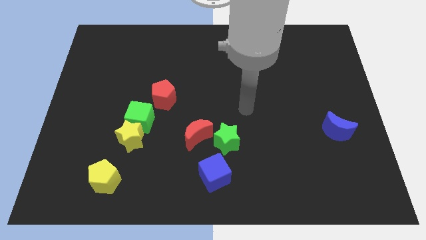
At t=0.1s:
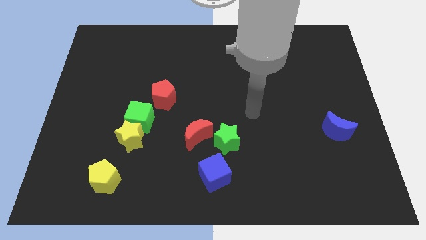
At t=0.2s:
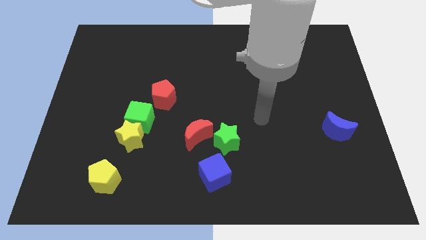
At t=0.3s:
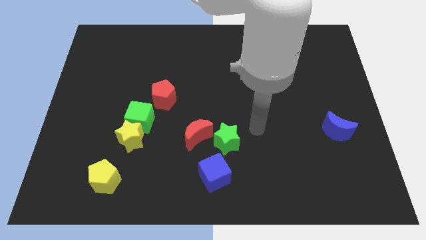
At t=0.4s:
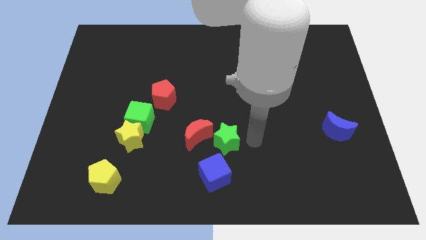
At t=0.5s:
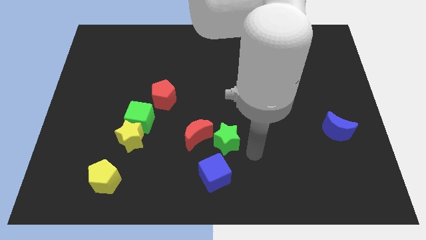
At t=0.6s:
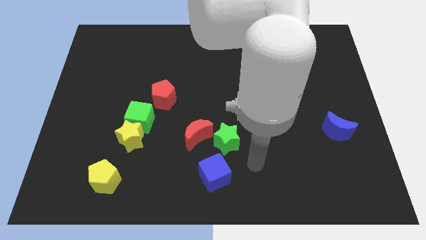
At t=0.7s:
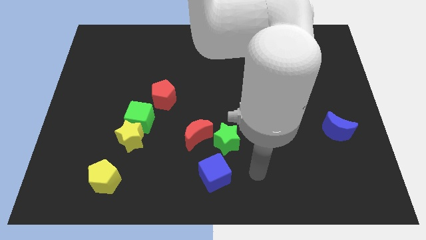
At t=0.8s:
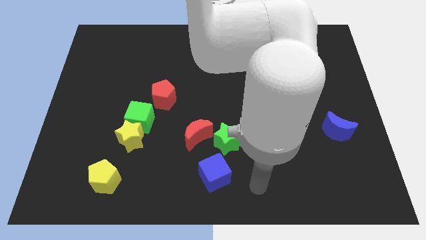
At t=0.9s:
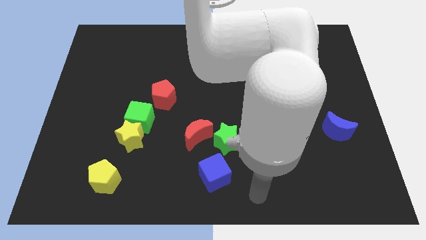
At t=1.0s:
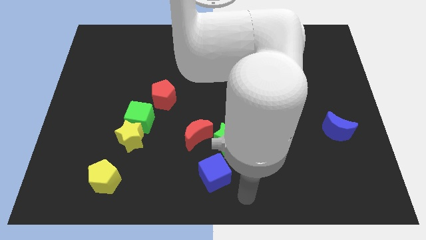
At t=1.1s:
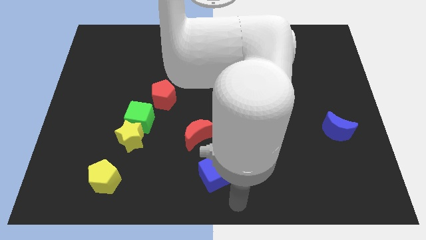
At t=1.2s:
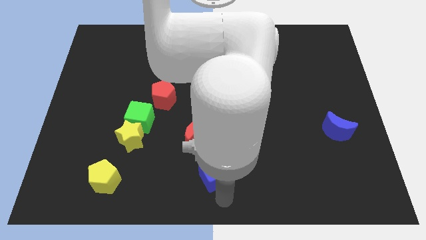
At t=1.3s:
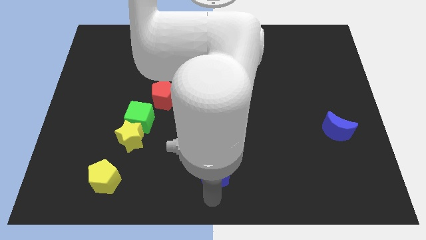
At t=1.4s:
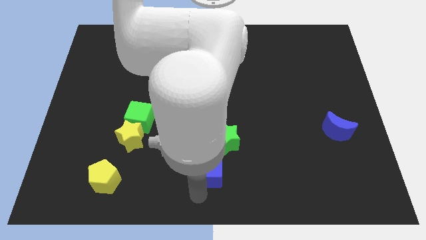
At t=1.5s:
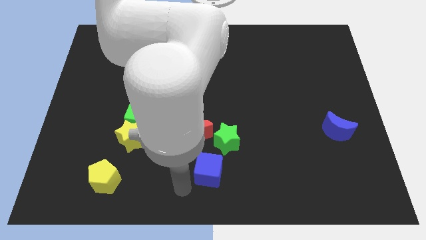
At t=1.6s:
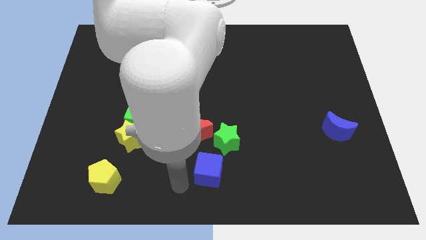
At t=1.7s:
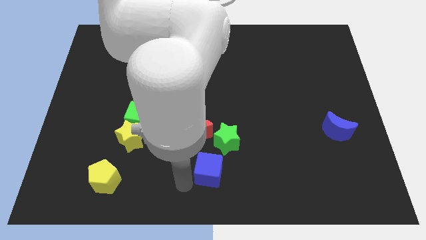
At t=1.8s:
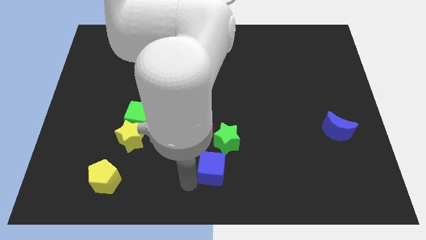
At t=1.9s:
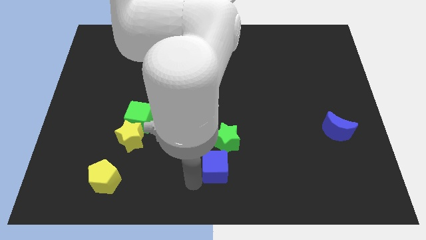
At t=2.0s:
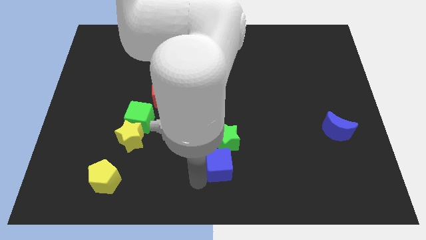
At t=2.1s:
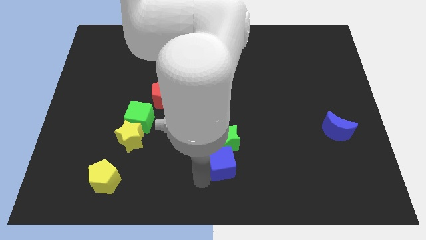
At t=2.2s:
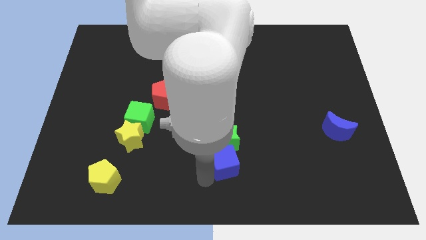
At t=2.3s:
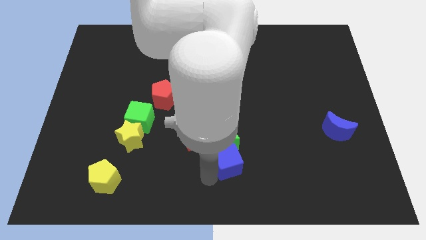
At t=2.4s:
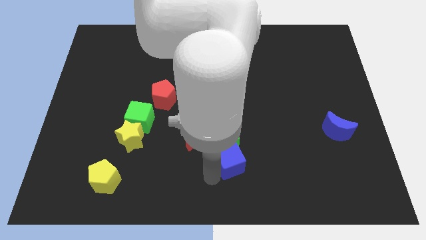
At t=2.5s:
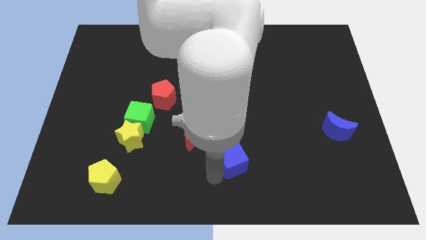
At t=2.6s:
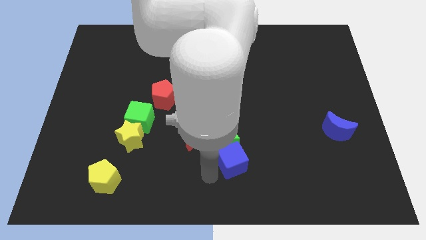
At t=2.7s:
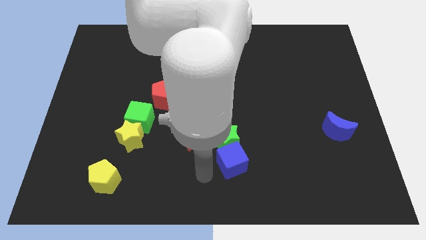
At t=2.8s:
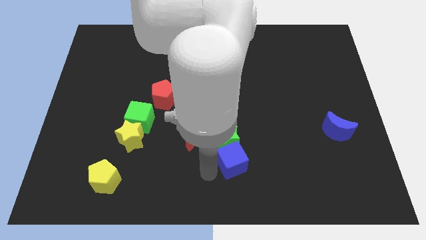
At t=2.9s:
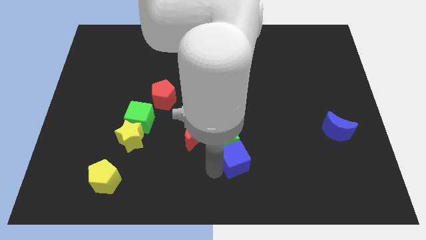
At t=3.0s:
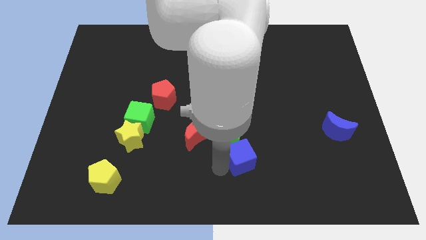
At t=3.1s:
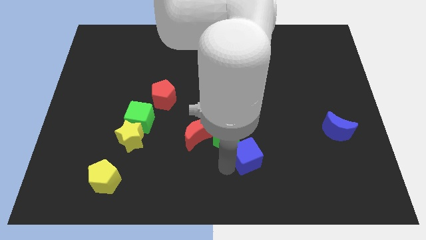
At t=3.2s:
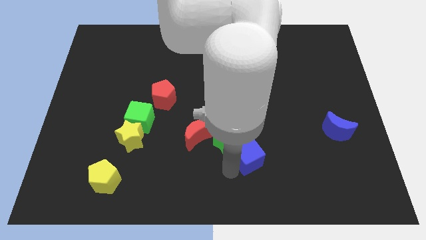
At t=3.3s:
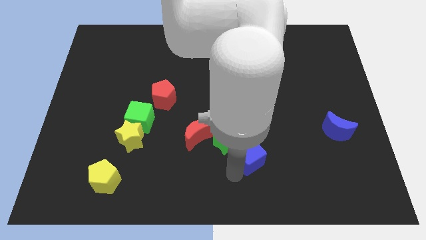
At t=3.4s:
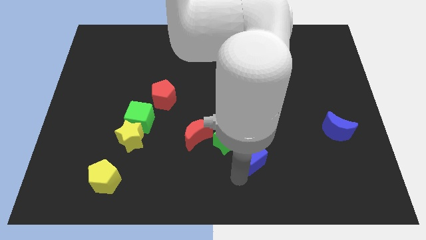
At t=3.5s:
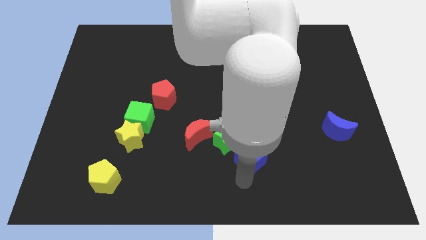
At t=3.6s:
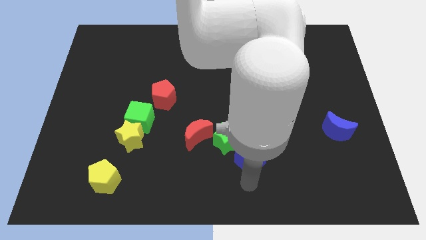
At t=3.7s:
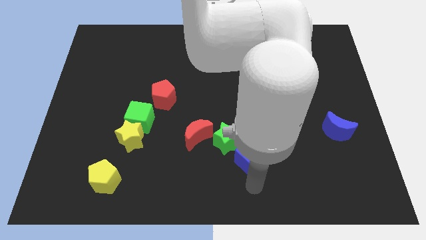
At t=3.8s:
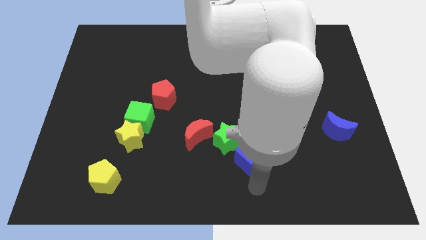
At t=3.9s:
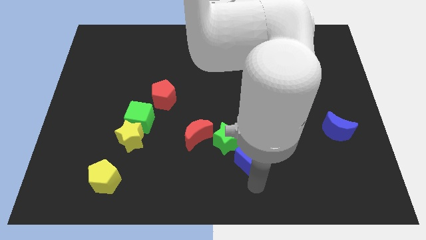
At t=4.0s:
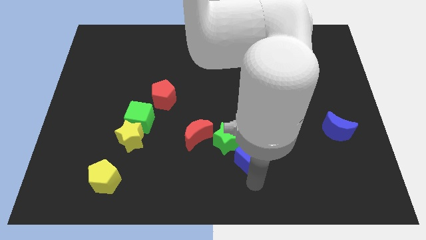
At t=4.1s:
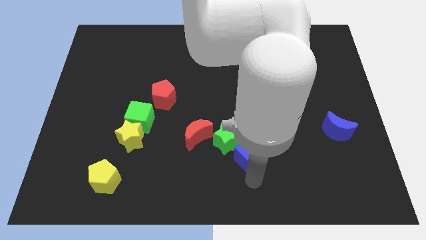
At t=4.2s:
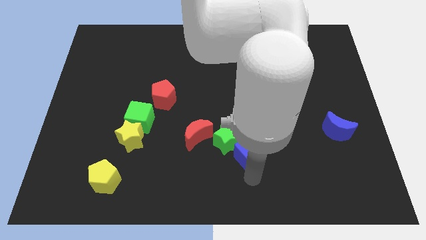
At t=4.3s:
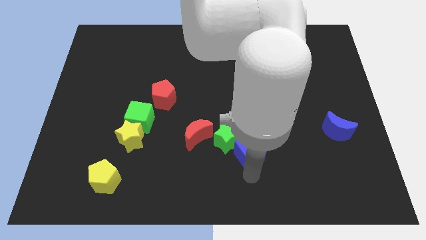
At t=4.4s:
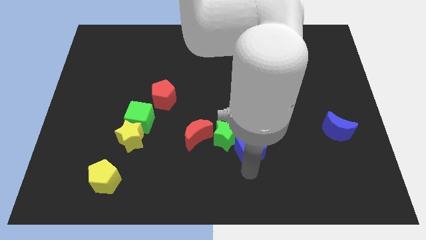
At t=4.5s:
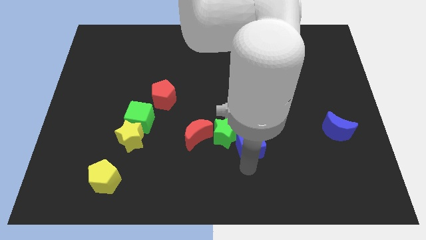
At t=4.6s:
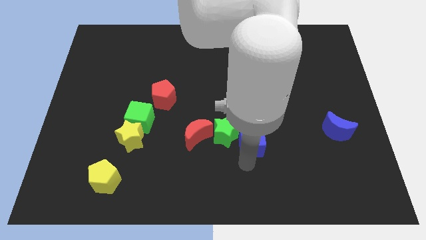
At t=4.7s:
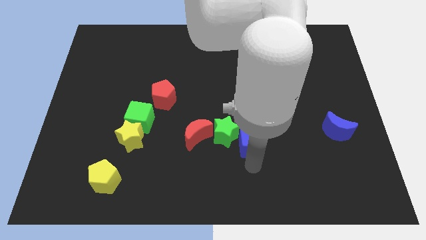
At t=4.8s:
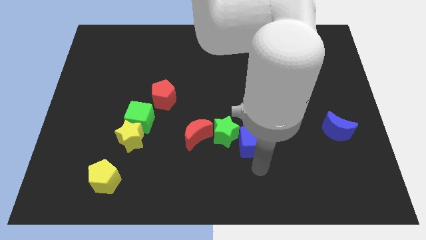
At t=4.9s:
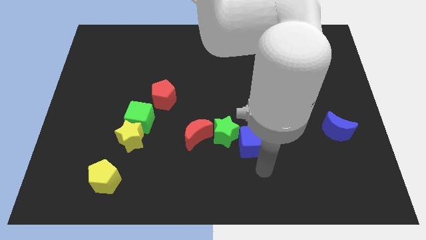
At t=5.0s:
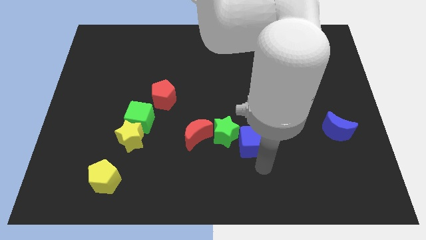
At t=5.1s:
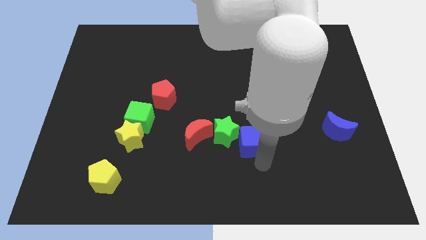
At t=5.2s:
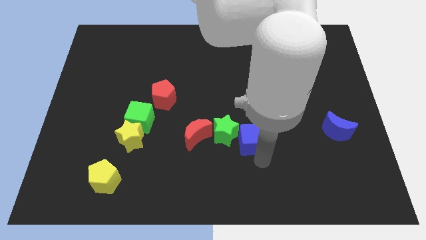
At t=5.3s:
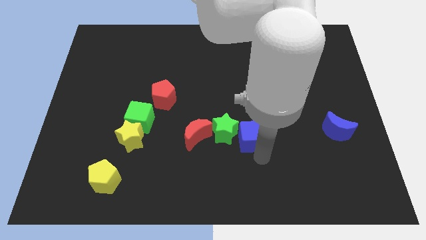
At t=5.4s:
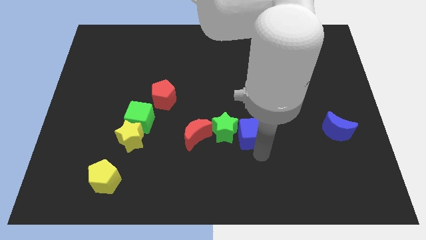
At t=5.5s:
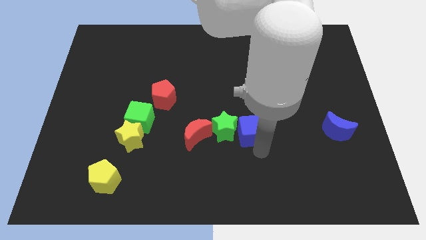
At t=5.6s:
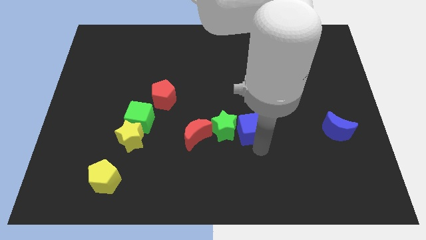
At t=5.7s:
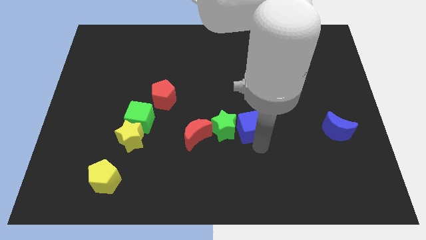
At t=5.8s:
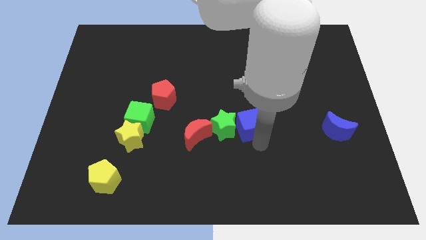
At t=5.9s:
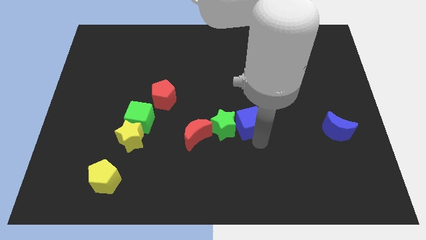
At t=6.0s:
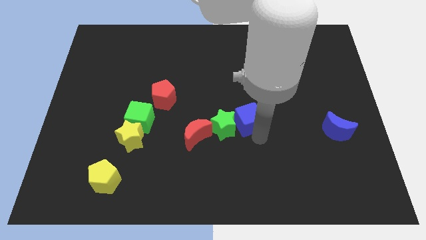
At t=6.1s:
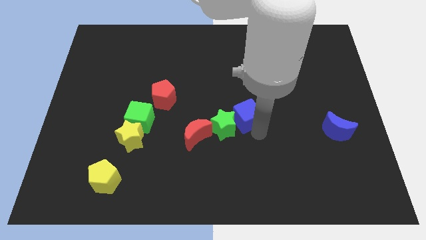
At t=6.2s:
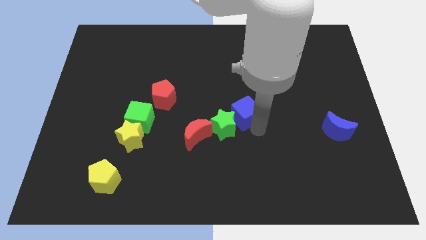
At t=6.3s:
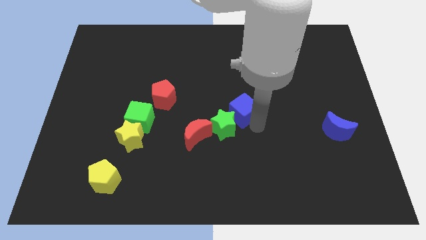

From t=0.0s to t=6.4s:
slide the blue cube to the top side of the green star
